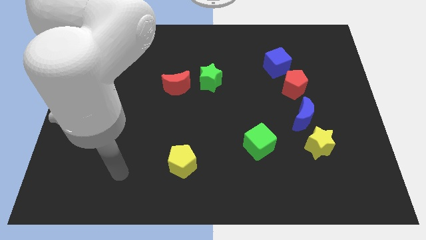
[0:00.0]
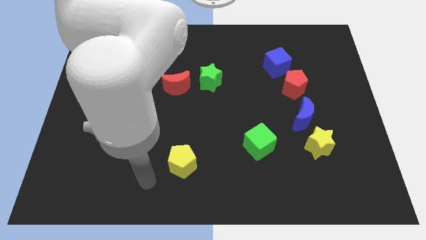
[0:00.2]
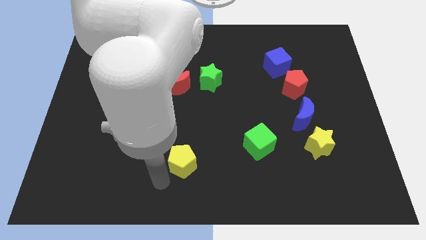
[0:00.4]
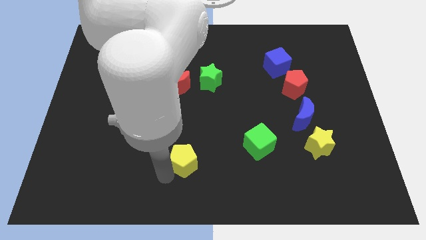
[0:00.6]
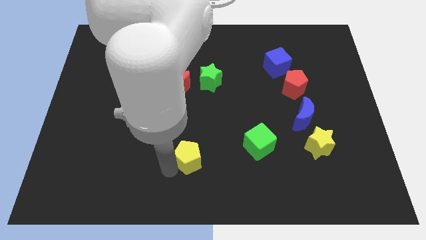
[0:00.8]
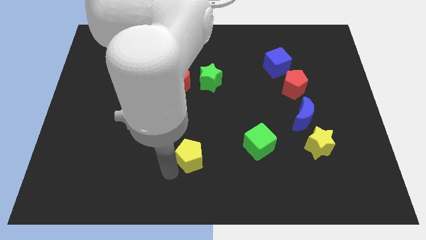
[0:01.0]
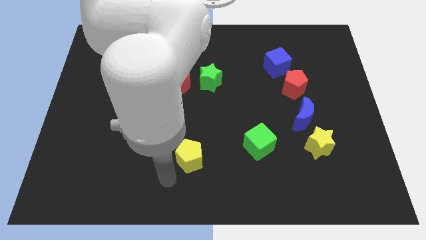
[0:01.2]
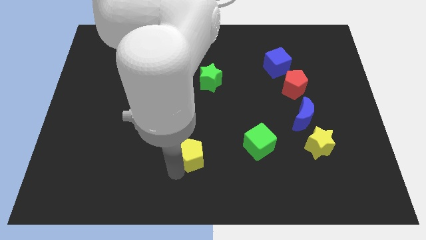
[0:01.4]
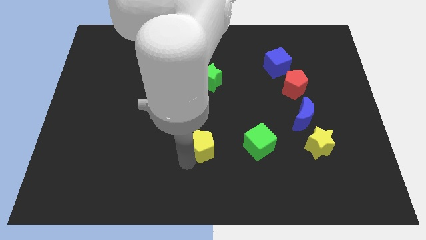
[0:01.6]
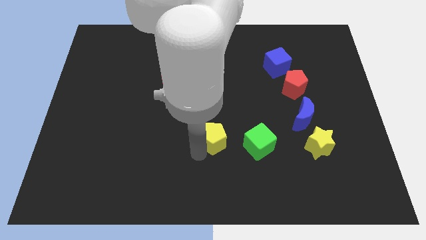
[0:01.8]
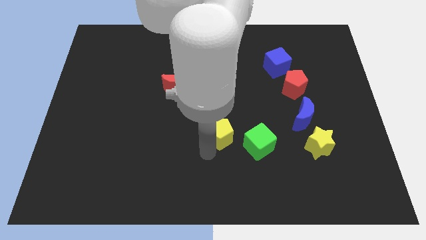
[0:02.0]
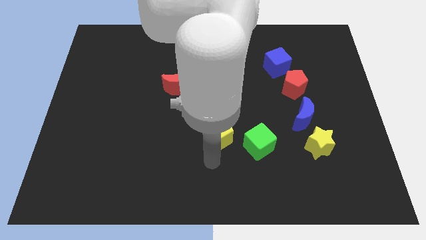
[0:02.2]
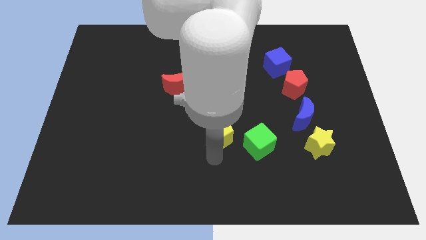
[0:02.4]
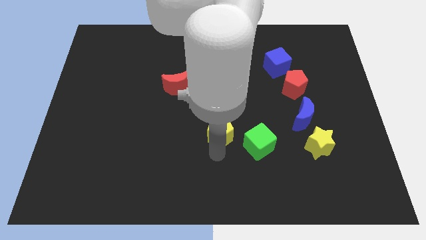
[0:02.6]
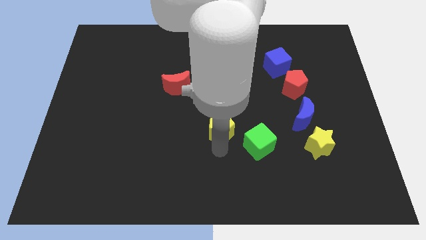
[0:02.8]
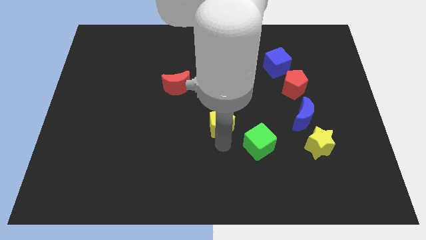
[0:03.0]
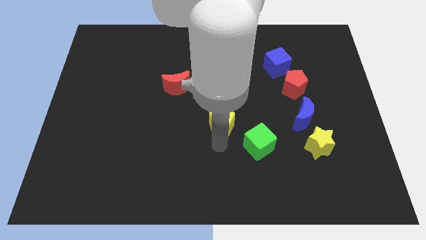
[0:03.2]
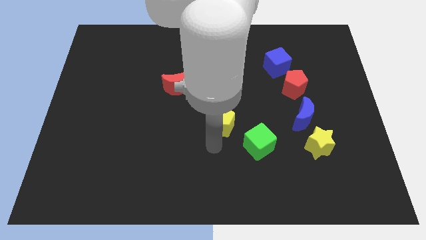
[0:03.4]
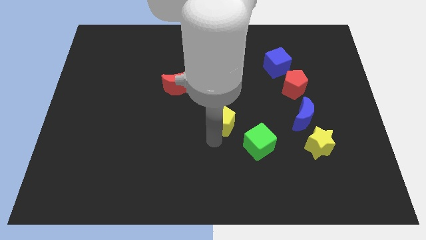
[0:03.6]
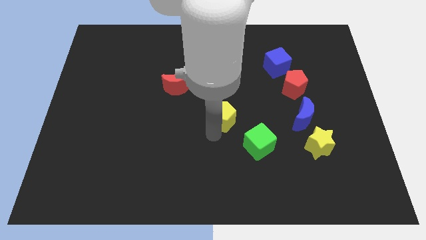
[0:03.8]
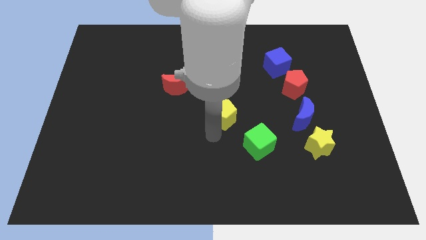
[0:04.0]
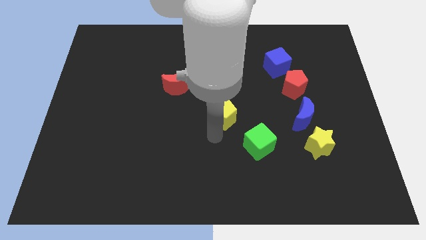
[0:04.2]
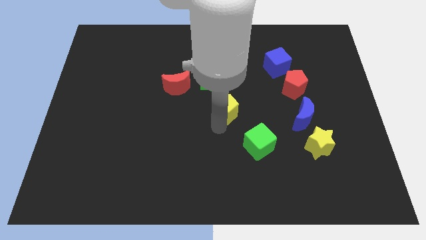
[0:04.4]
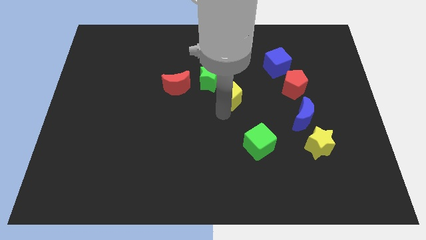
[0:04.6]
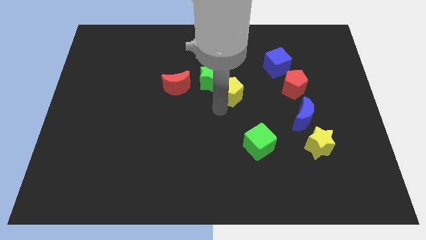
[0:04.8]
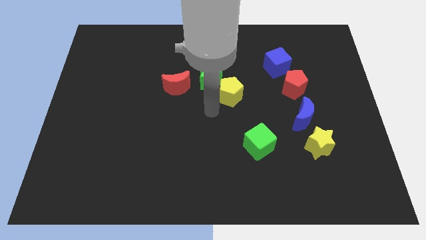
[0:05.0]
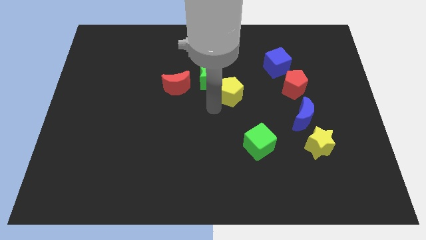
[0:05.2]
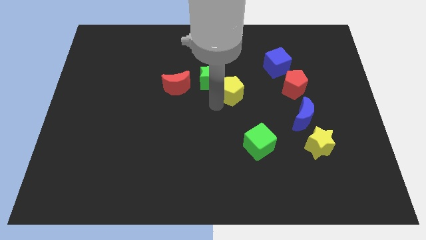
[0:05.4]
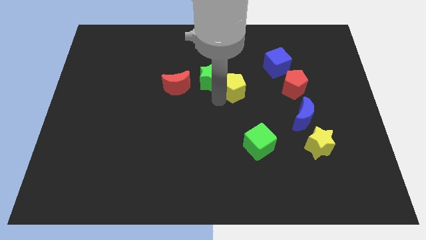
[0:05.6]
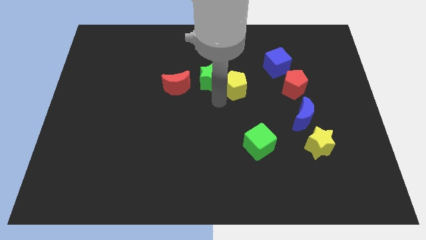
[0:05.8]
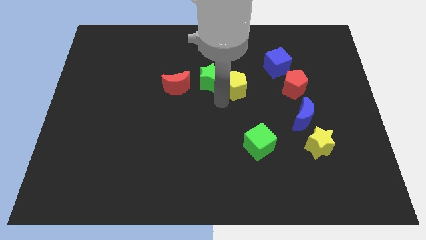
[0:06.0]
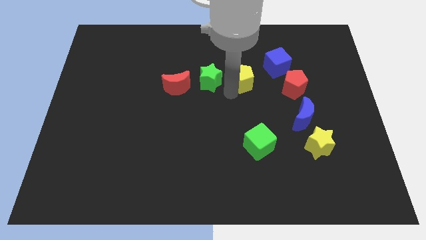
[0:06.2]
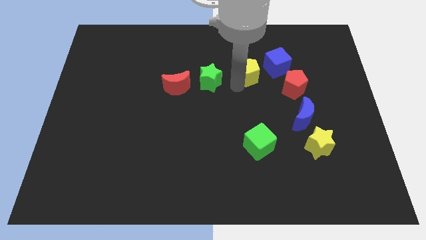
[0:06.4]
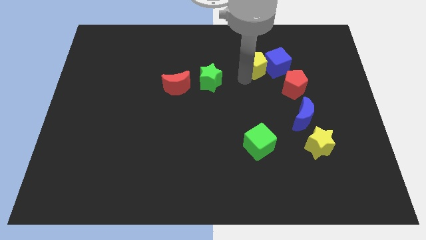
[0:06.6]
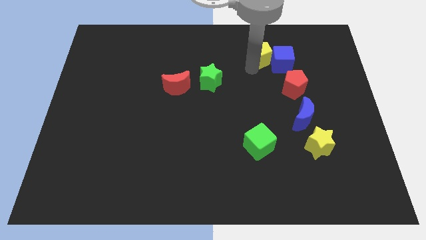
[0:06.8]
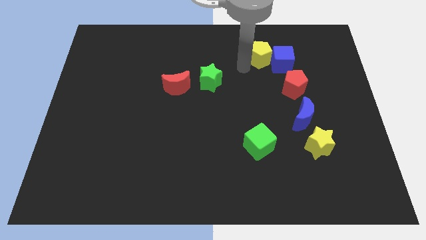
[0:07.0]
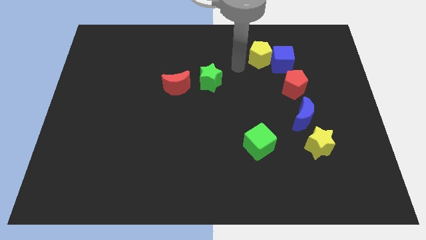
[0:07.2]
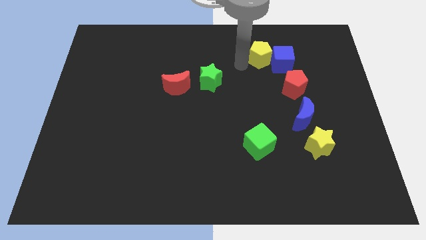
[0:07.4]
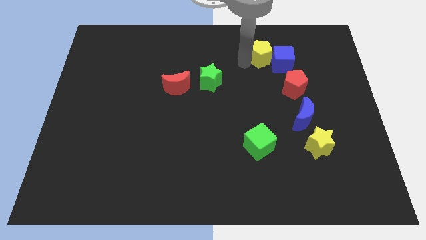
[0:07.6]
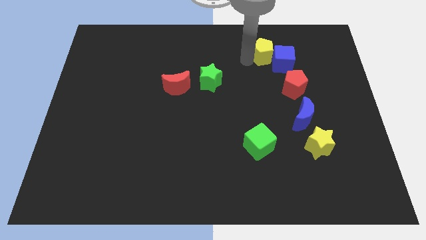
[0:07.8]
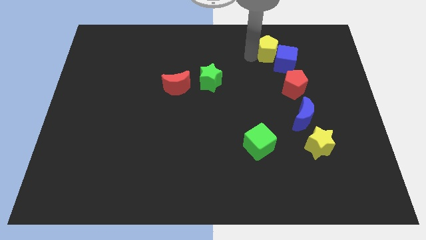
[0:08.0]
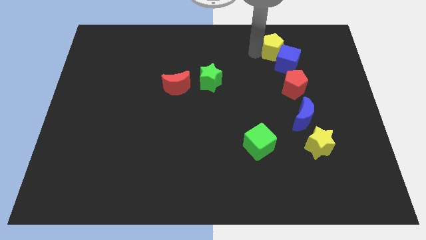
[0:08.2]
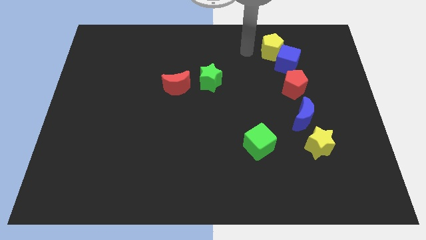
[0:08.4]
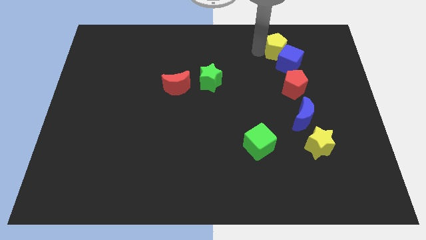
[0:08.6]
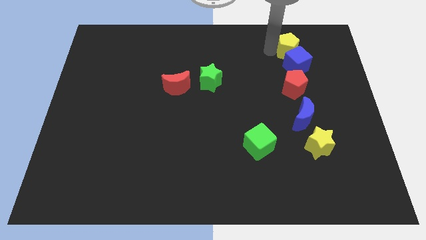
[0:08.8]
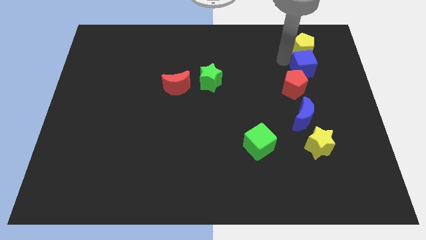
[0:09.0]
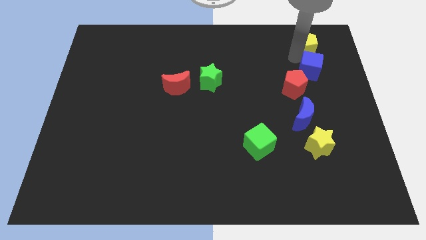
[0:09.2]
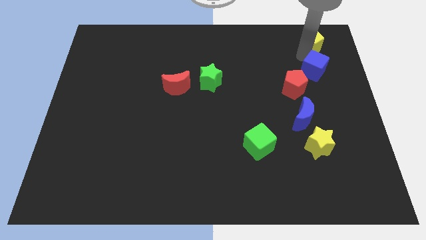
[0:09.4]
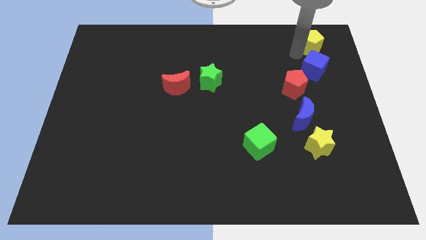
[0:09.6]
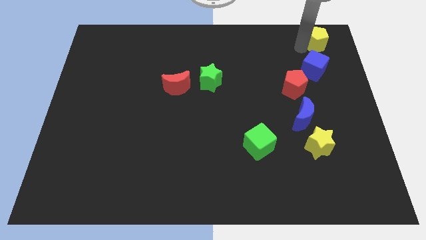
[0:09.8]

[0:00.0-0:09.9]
push the yellow pentagon to the top right of the board

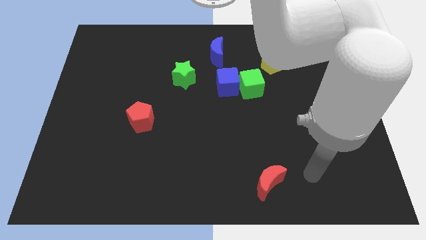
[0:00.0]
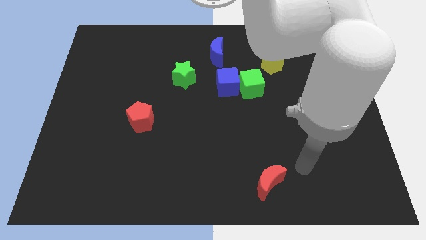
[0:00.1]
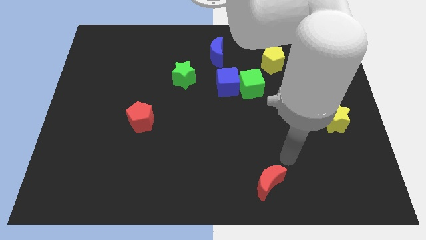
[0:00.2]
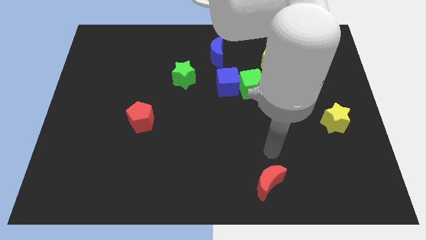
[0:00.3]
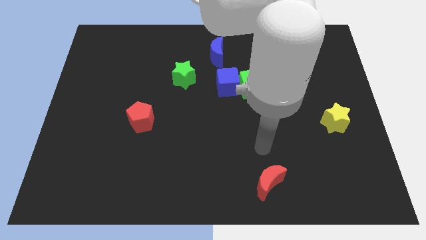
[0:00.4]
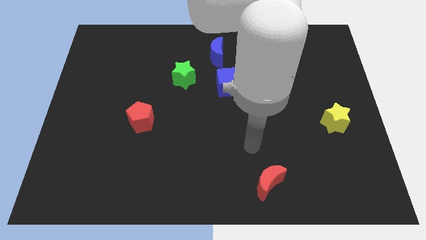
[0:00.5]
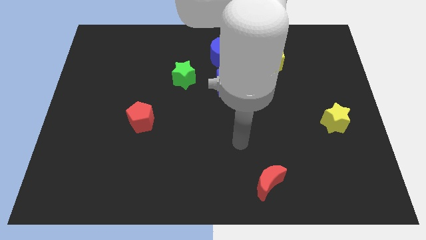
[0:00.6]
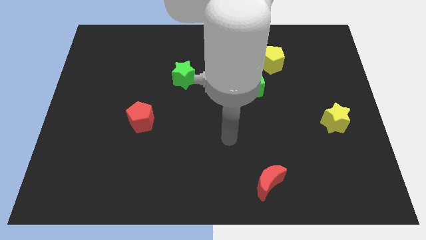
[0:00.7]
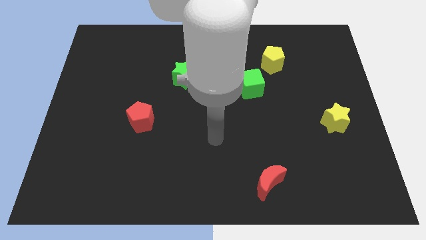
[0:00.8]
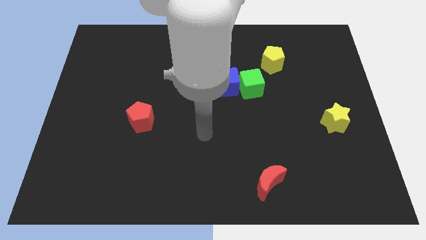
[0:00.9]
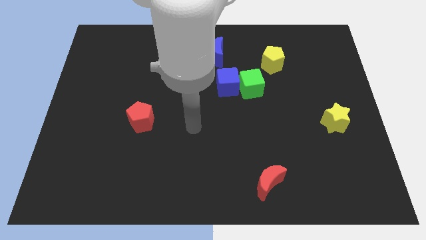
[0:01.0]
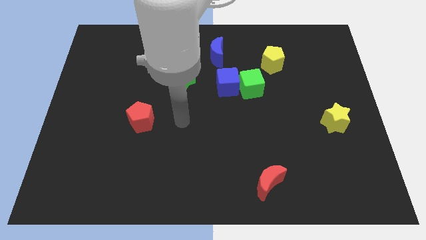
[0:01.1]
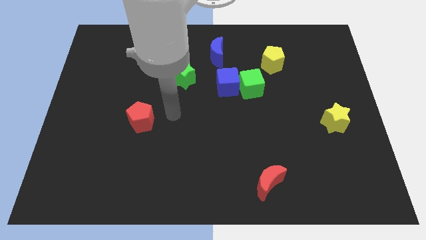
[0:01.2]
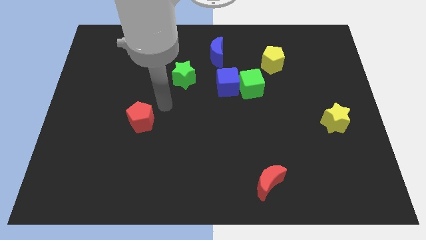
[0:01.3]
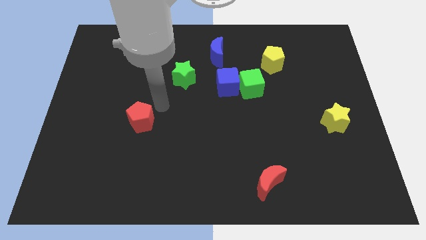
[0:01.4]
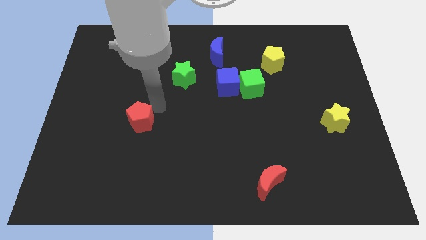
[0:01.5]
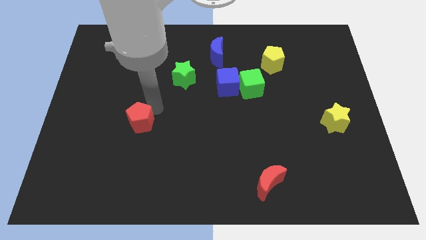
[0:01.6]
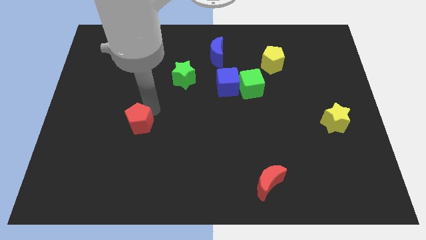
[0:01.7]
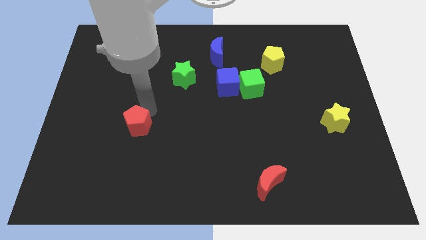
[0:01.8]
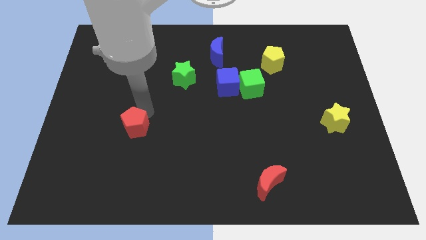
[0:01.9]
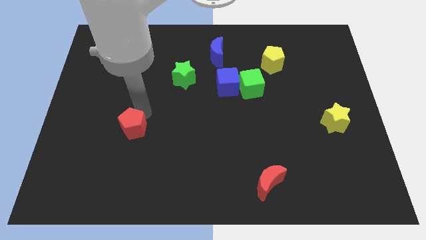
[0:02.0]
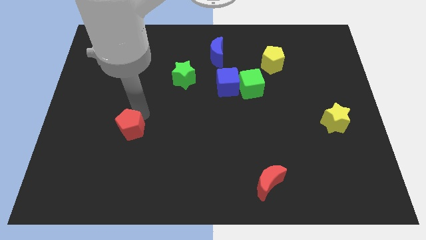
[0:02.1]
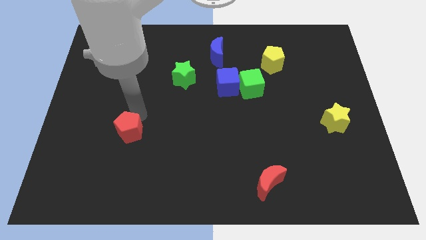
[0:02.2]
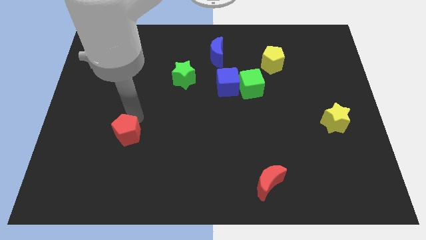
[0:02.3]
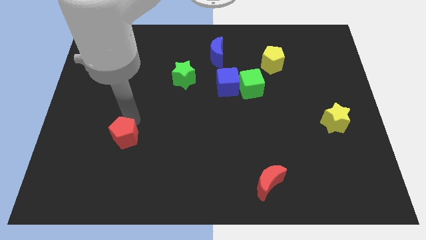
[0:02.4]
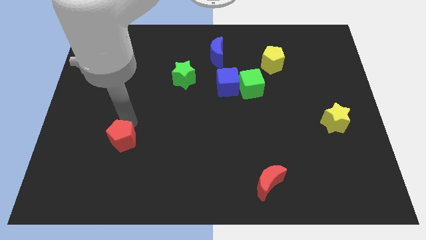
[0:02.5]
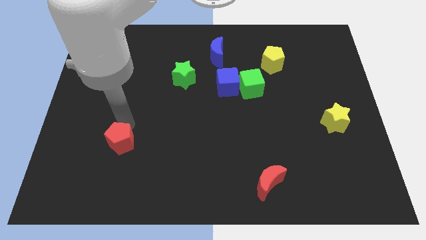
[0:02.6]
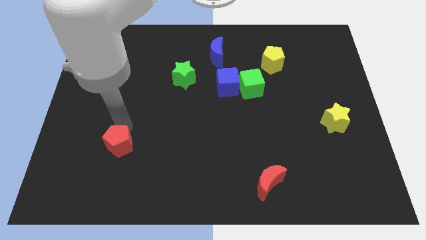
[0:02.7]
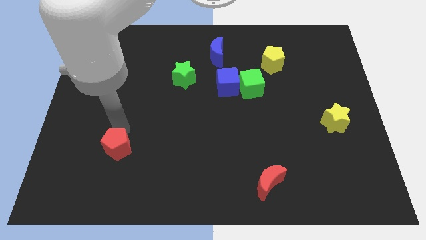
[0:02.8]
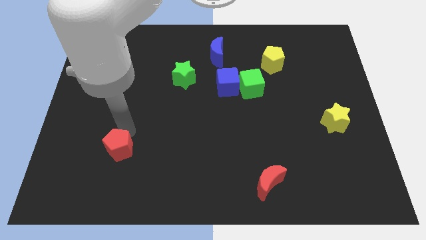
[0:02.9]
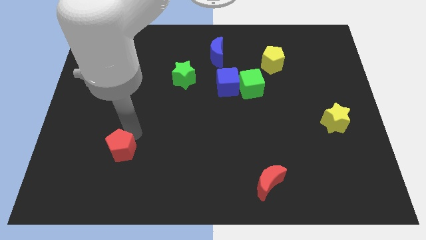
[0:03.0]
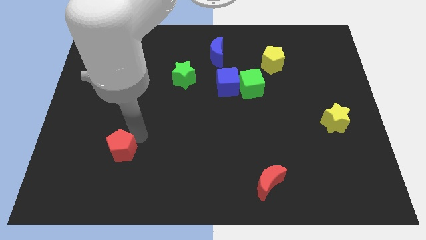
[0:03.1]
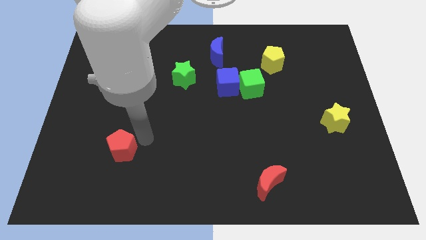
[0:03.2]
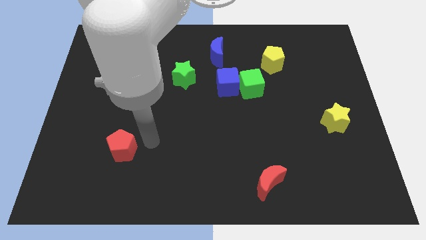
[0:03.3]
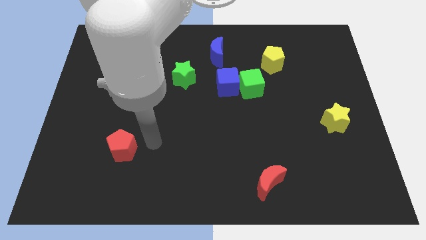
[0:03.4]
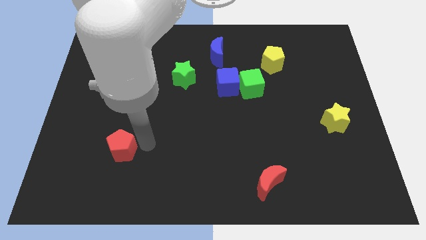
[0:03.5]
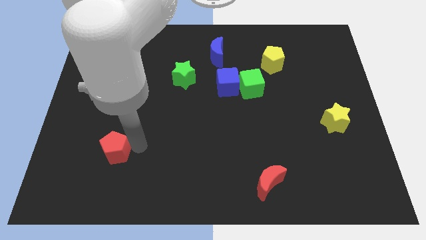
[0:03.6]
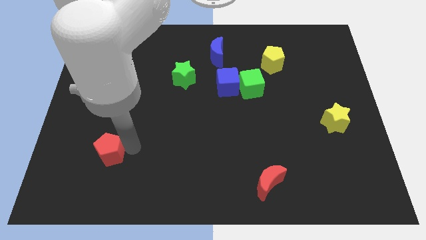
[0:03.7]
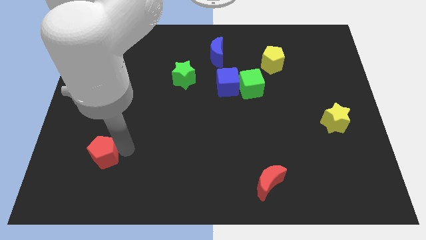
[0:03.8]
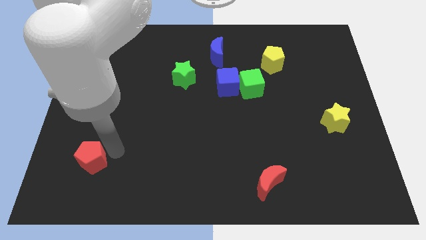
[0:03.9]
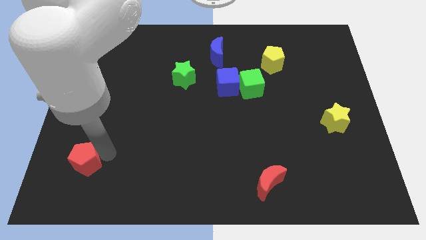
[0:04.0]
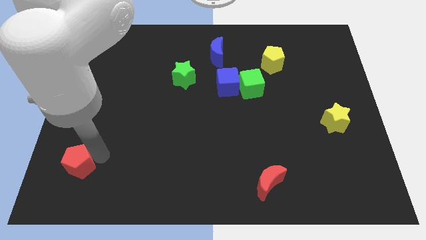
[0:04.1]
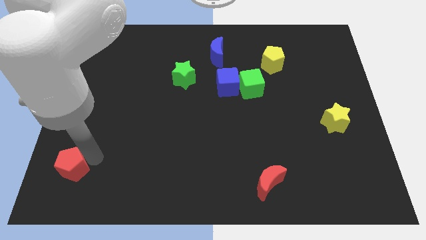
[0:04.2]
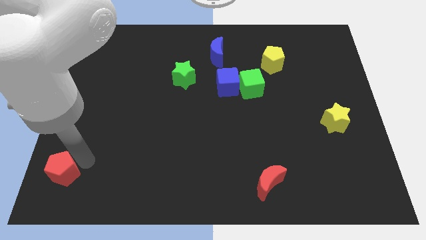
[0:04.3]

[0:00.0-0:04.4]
put the red pentagon to the lower left corner
